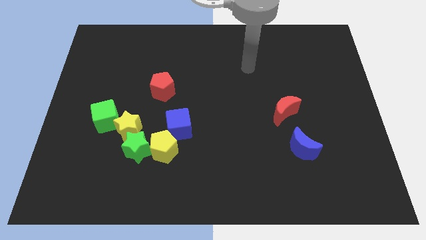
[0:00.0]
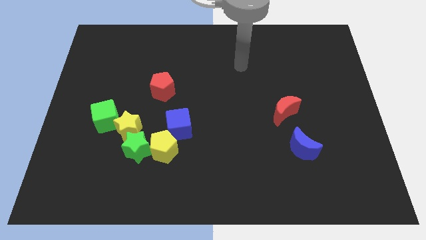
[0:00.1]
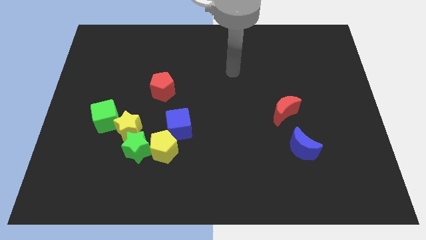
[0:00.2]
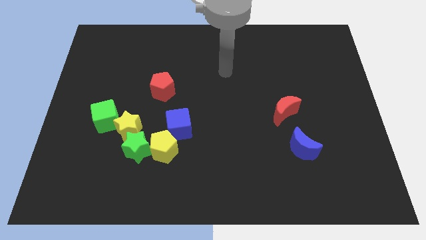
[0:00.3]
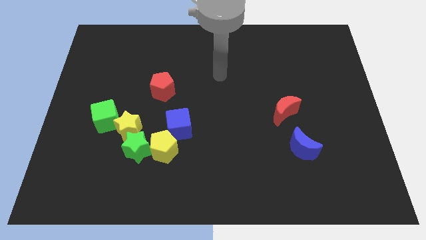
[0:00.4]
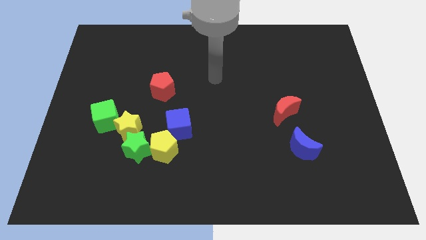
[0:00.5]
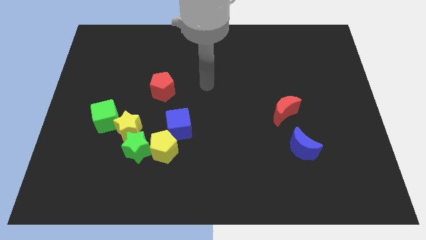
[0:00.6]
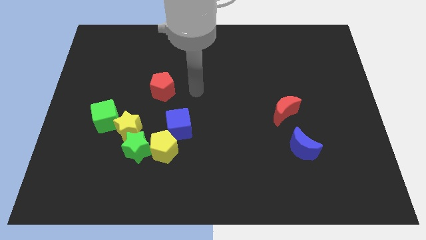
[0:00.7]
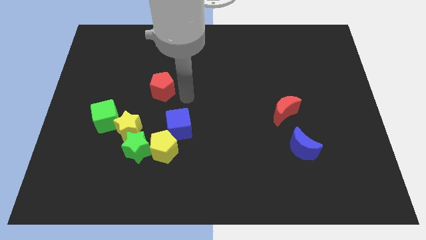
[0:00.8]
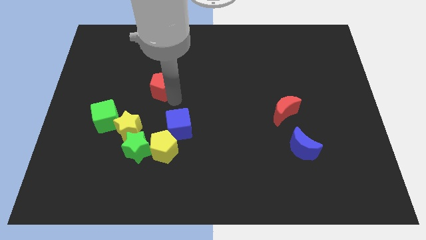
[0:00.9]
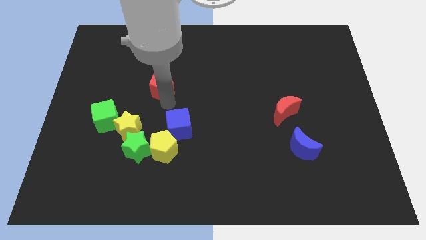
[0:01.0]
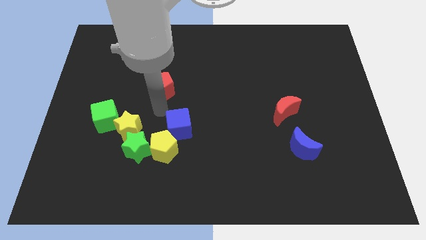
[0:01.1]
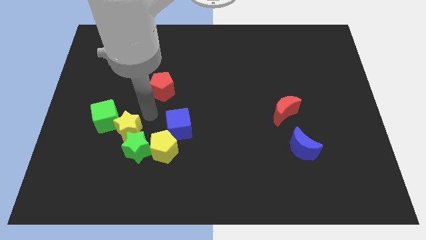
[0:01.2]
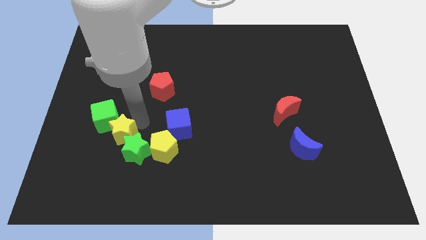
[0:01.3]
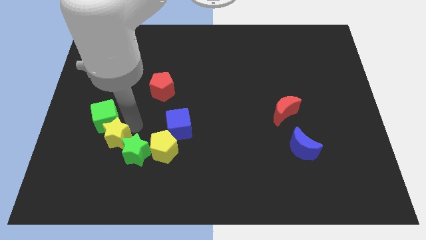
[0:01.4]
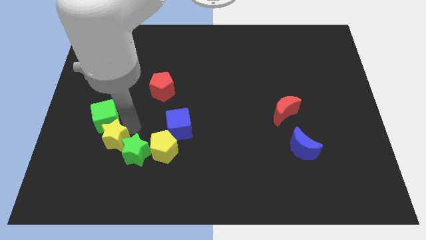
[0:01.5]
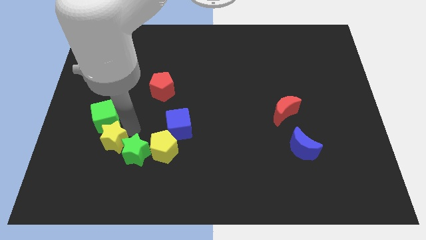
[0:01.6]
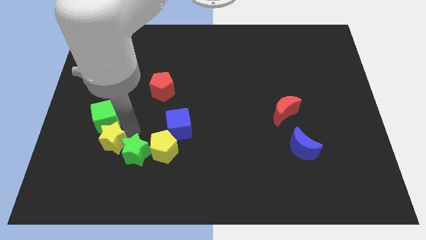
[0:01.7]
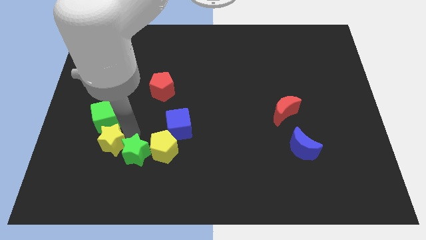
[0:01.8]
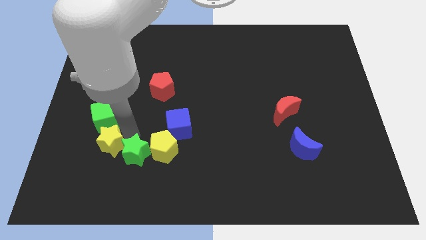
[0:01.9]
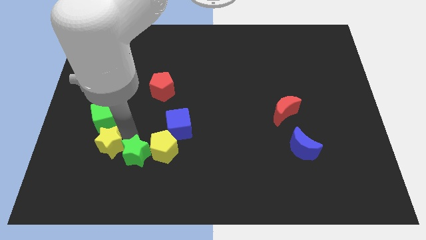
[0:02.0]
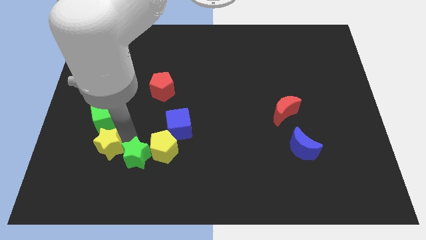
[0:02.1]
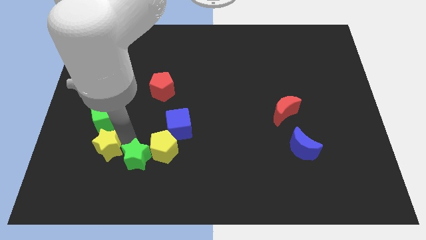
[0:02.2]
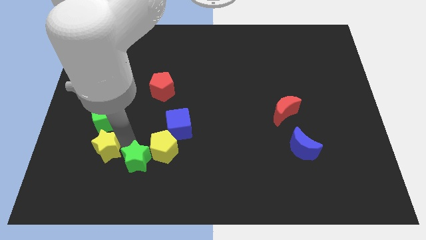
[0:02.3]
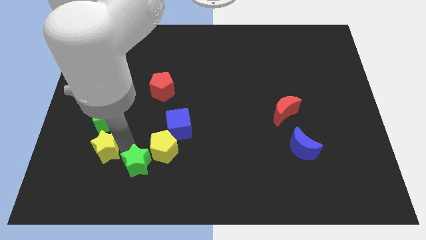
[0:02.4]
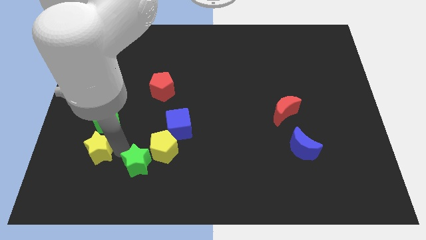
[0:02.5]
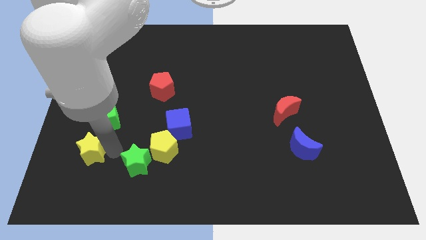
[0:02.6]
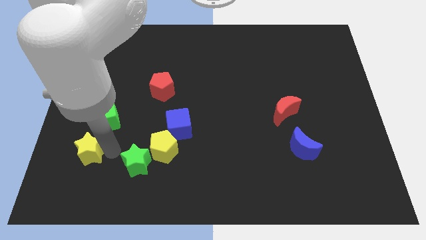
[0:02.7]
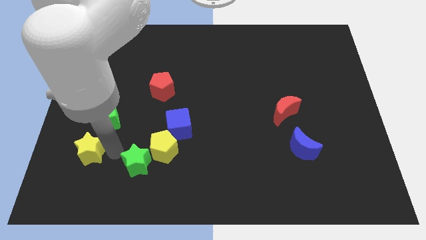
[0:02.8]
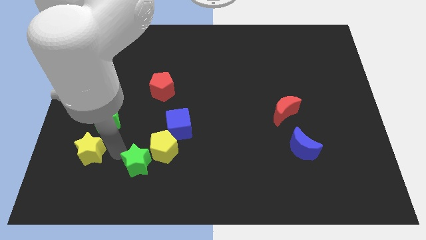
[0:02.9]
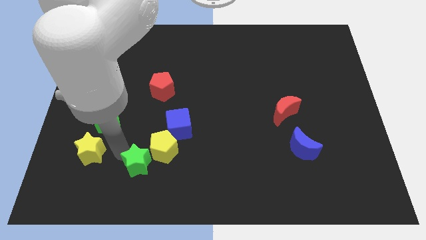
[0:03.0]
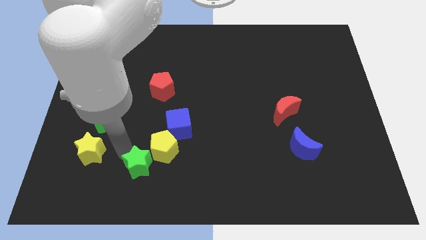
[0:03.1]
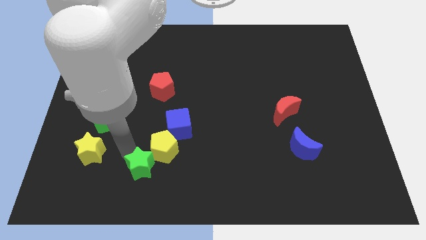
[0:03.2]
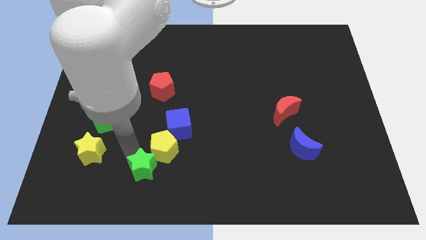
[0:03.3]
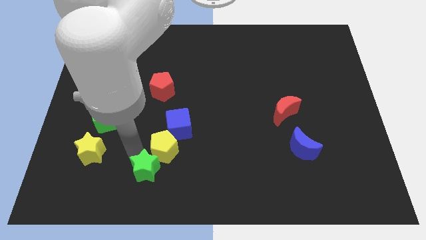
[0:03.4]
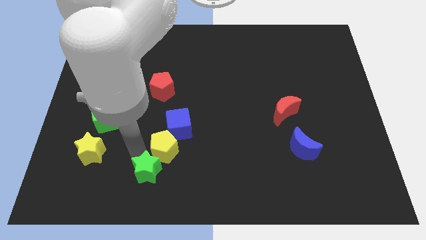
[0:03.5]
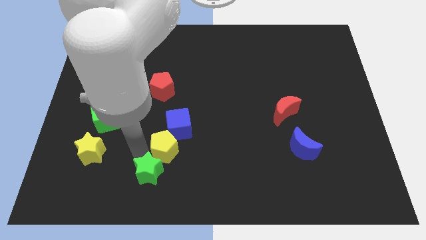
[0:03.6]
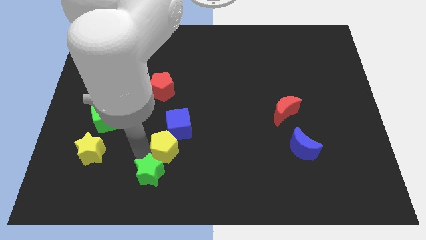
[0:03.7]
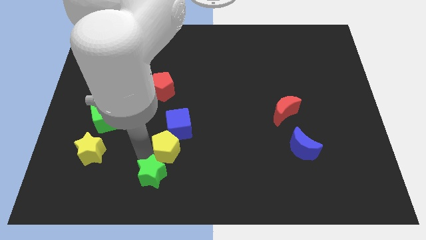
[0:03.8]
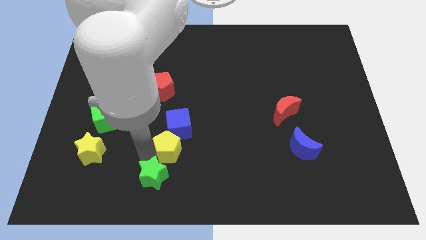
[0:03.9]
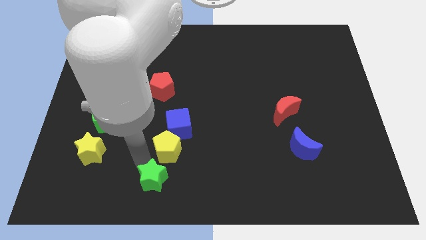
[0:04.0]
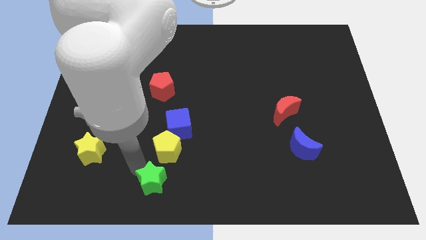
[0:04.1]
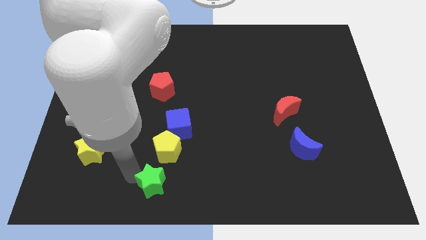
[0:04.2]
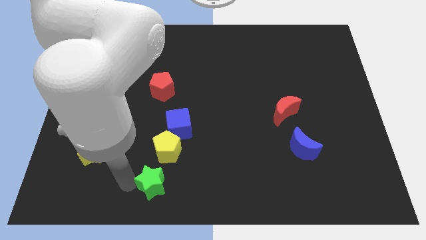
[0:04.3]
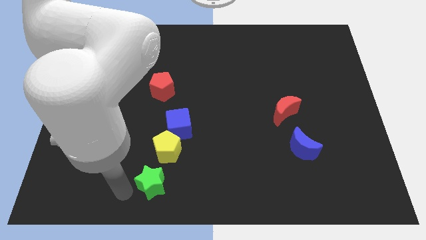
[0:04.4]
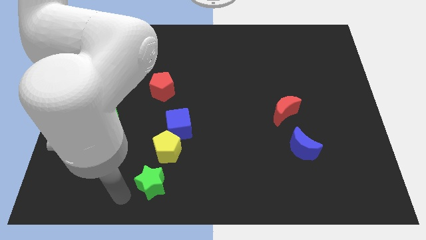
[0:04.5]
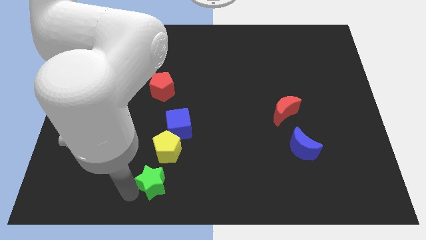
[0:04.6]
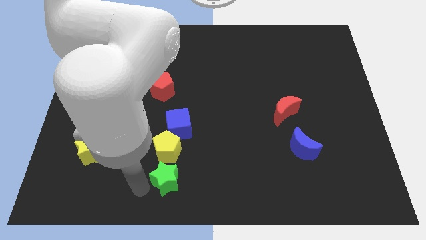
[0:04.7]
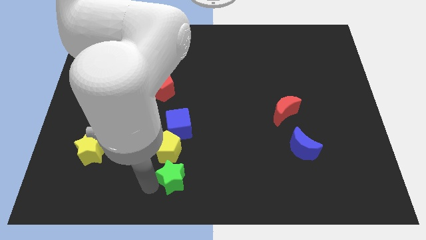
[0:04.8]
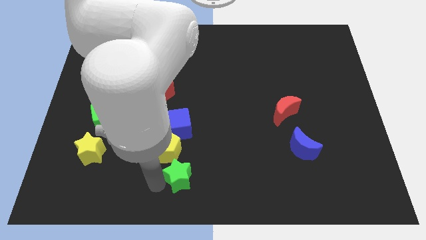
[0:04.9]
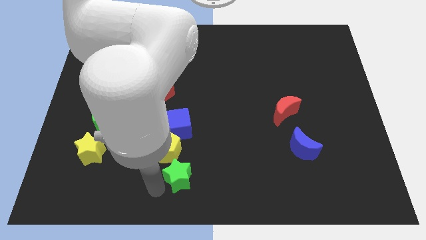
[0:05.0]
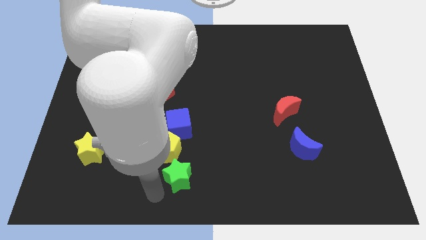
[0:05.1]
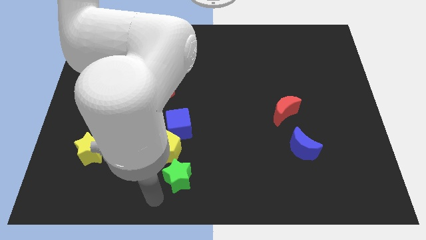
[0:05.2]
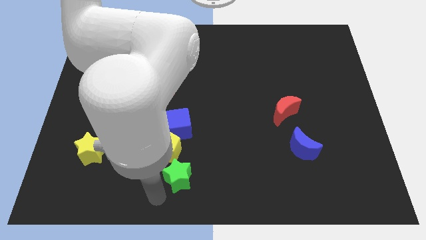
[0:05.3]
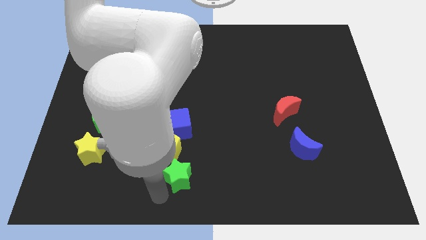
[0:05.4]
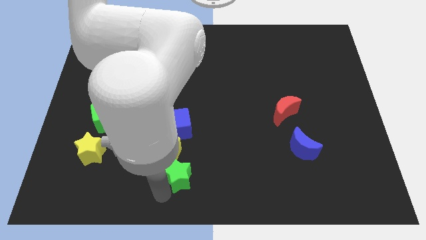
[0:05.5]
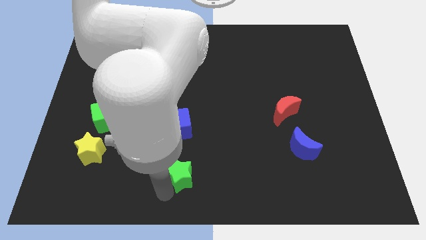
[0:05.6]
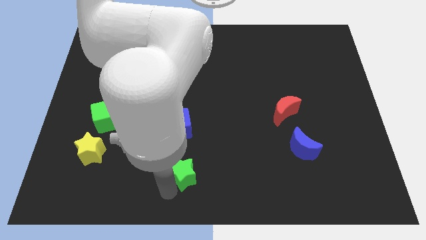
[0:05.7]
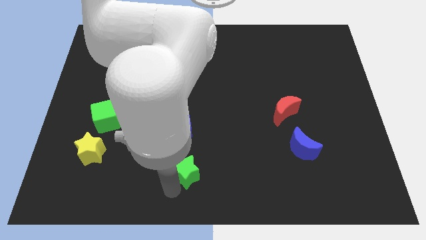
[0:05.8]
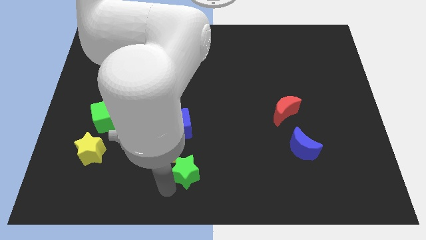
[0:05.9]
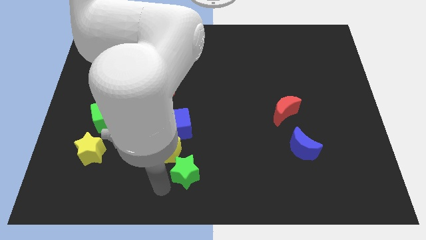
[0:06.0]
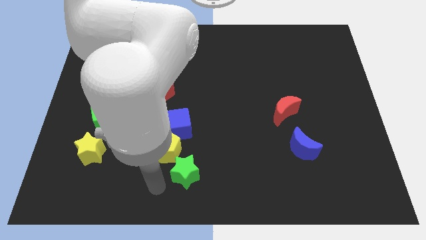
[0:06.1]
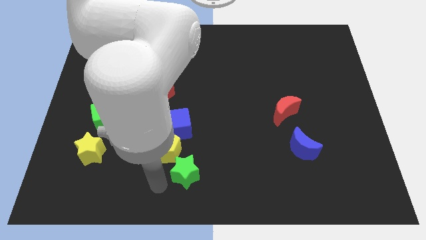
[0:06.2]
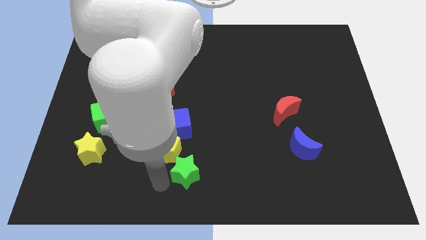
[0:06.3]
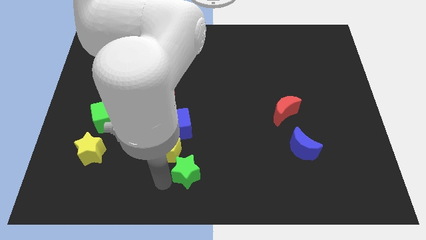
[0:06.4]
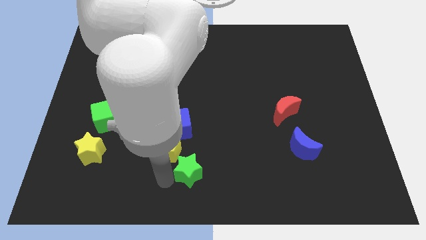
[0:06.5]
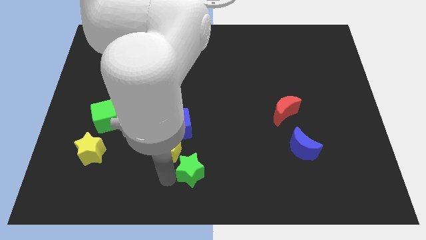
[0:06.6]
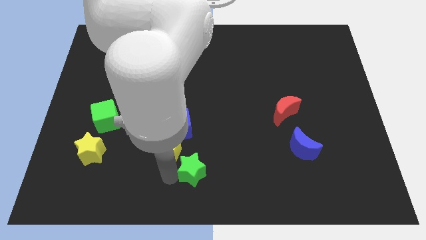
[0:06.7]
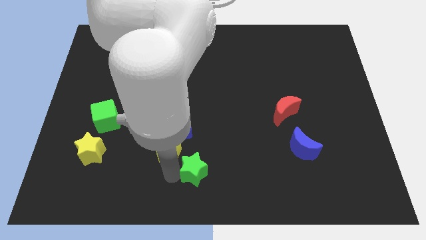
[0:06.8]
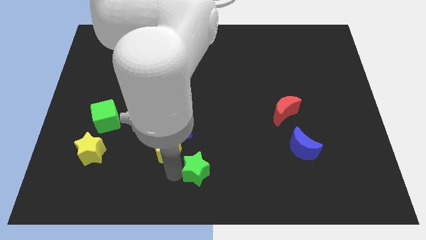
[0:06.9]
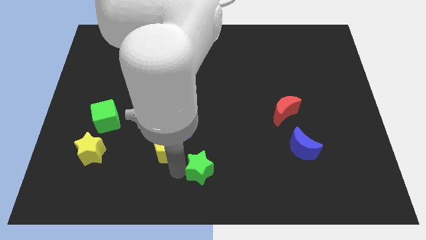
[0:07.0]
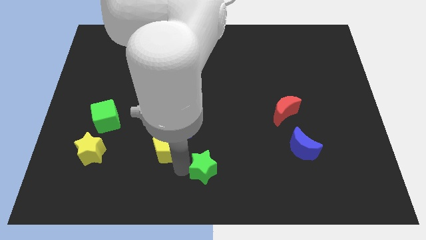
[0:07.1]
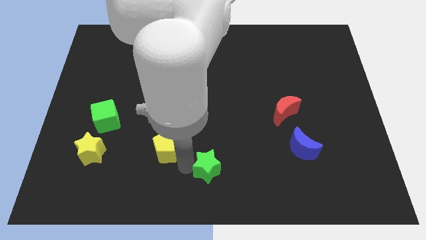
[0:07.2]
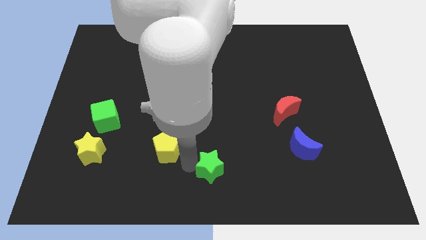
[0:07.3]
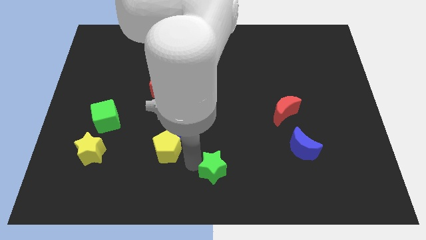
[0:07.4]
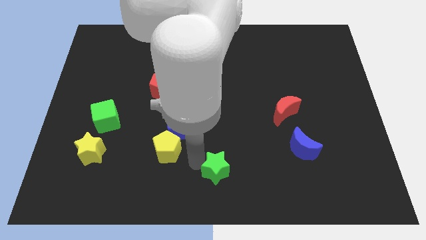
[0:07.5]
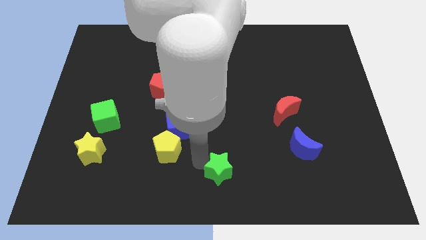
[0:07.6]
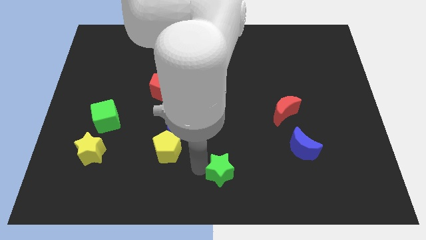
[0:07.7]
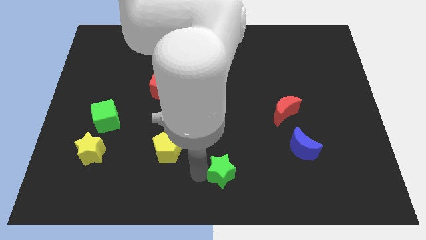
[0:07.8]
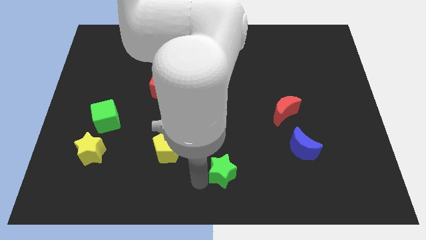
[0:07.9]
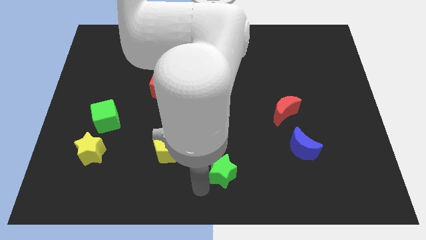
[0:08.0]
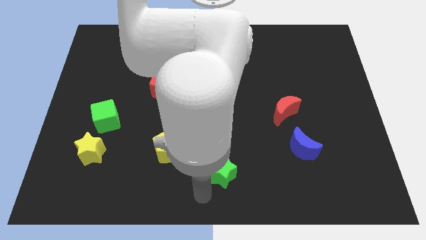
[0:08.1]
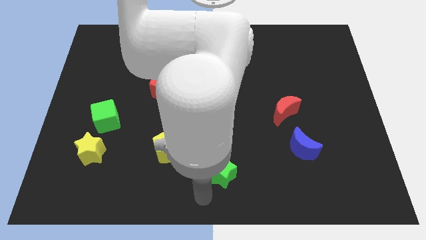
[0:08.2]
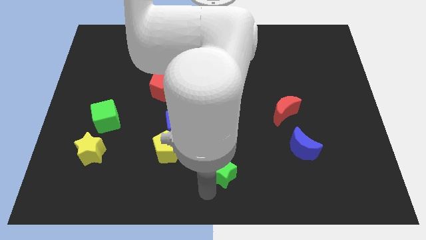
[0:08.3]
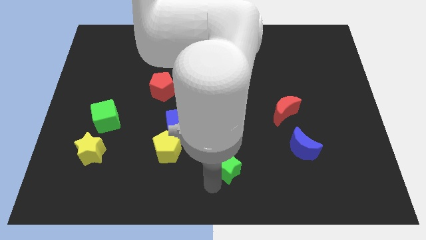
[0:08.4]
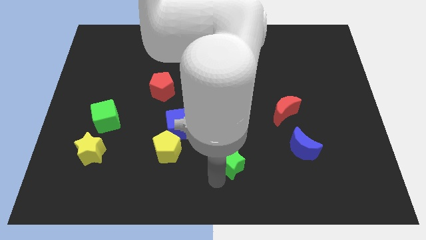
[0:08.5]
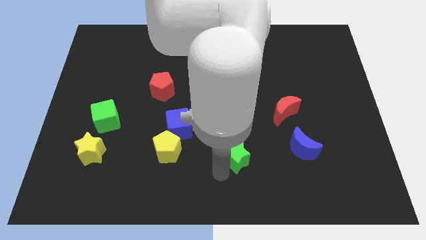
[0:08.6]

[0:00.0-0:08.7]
move the green star just left of the blue moon
